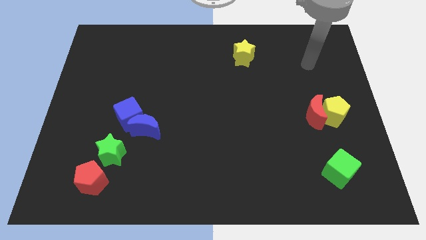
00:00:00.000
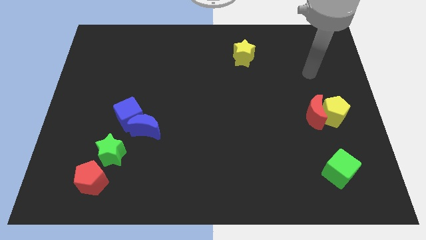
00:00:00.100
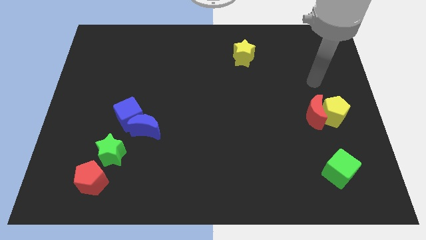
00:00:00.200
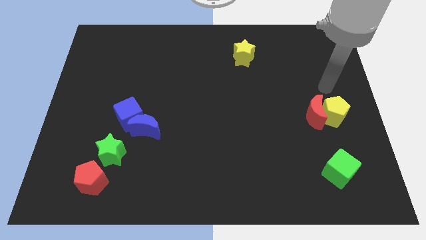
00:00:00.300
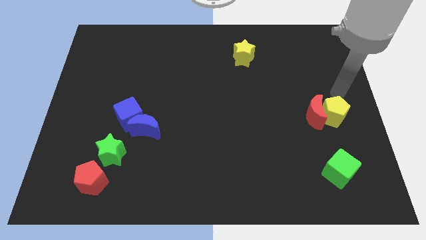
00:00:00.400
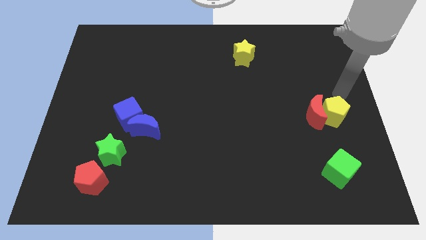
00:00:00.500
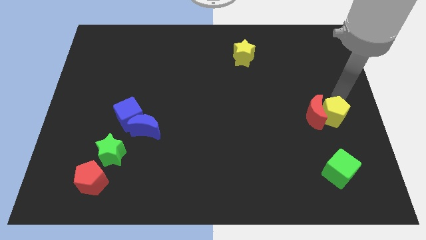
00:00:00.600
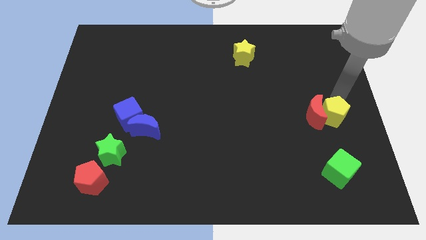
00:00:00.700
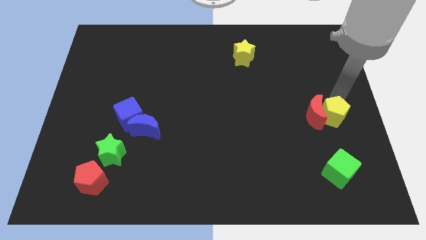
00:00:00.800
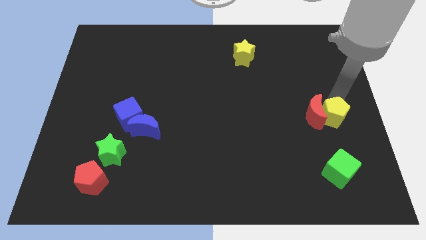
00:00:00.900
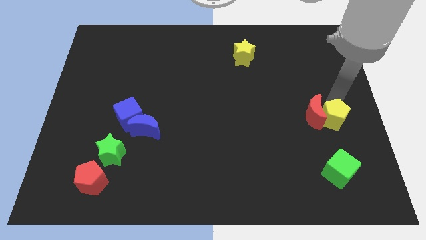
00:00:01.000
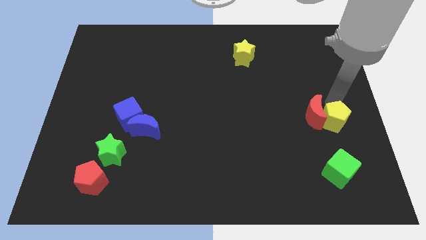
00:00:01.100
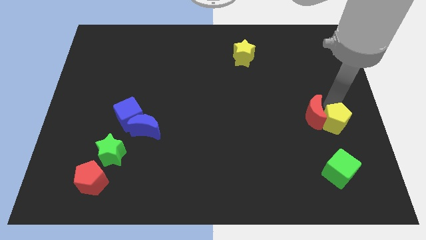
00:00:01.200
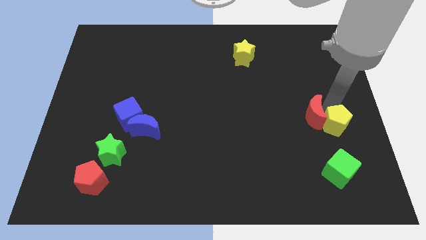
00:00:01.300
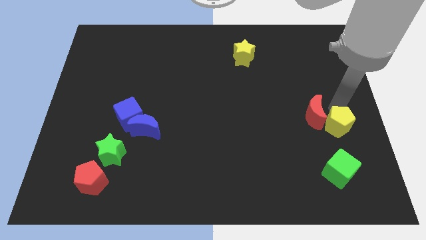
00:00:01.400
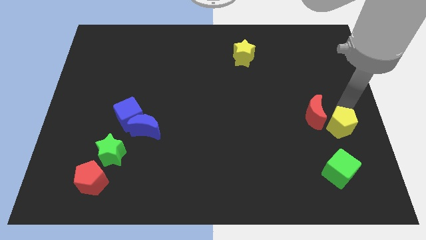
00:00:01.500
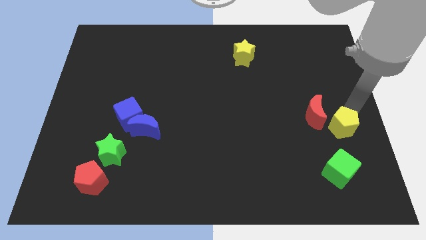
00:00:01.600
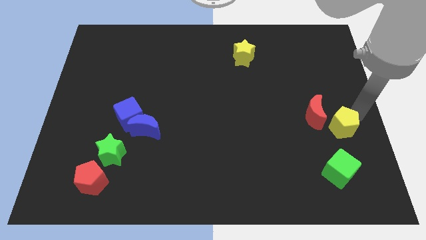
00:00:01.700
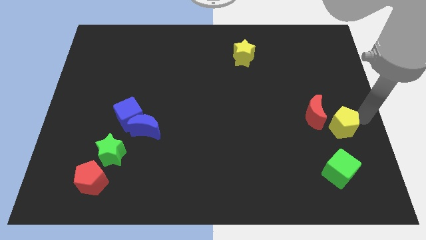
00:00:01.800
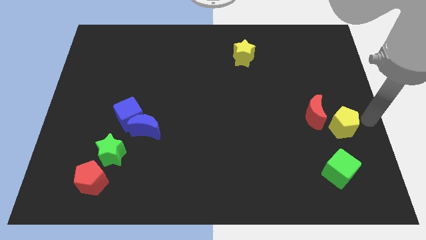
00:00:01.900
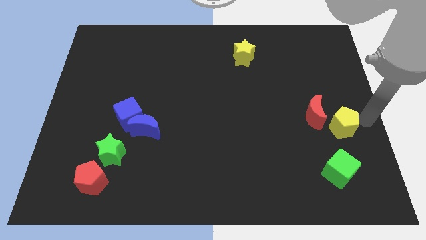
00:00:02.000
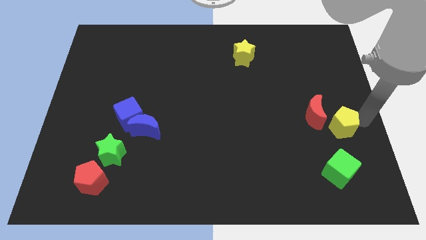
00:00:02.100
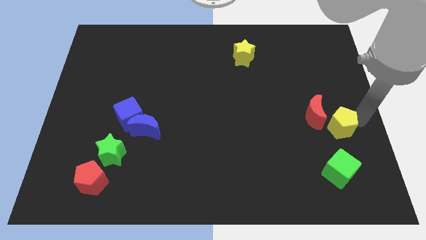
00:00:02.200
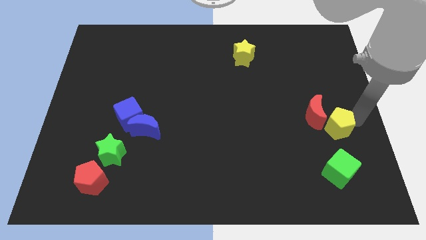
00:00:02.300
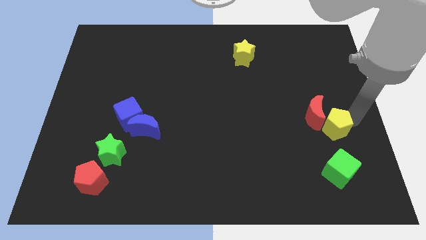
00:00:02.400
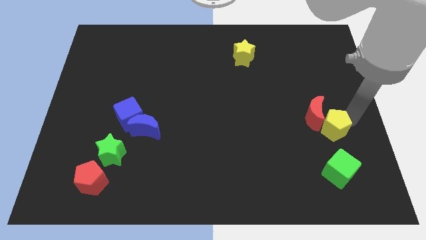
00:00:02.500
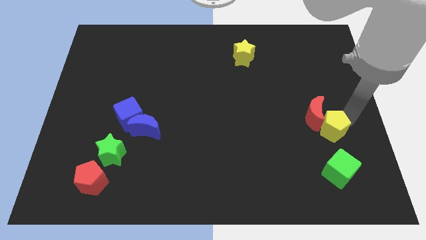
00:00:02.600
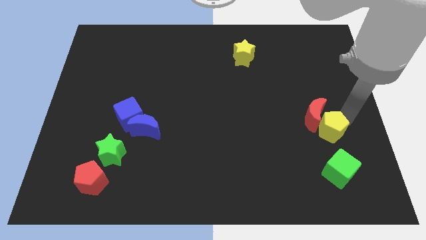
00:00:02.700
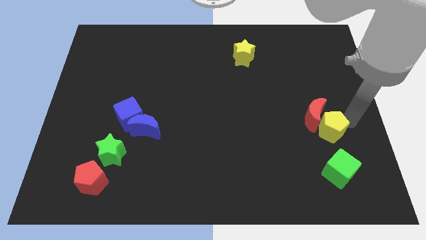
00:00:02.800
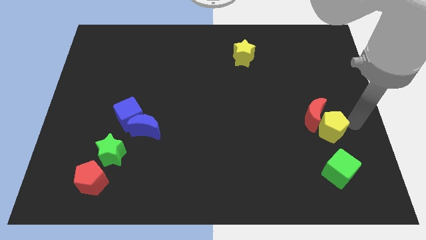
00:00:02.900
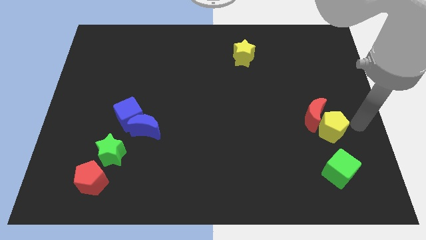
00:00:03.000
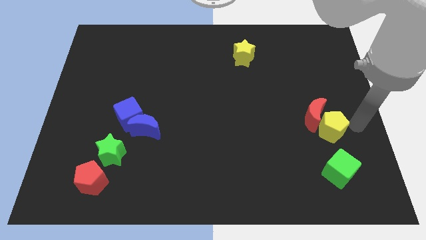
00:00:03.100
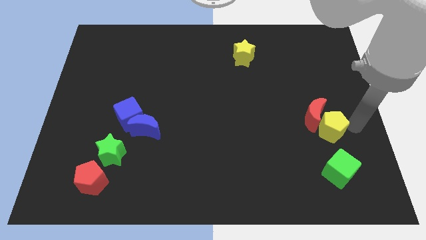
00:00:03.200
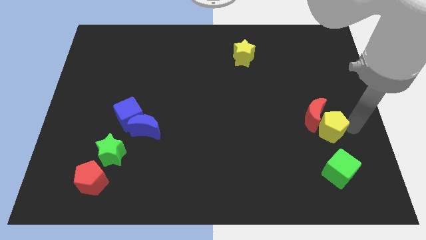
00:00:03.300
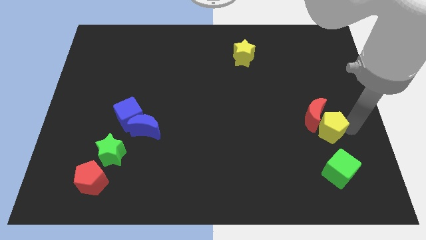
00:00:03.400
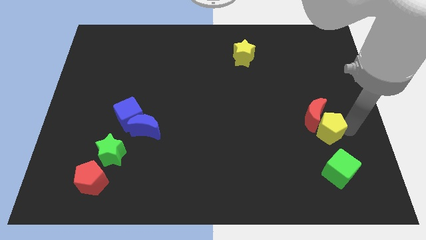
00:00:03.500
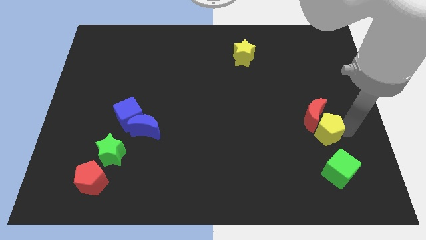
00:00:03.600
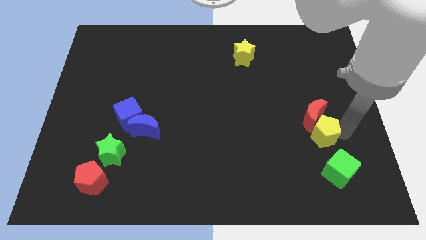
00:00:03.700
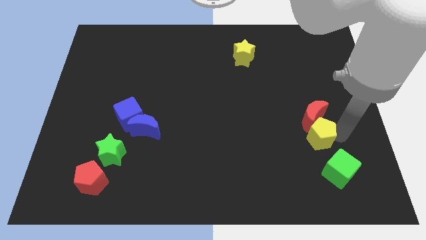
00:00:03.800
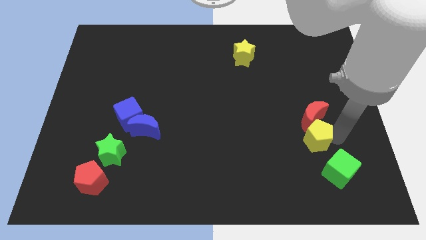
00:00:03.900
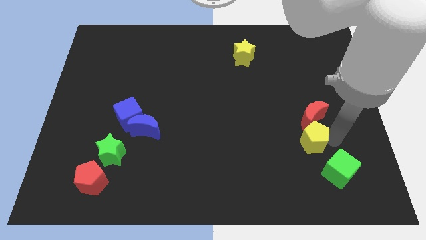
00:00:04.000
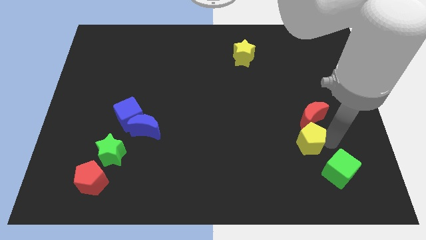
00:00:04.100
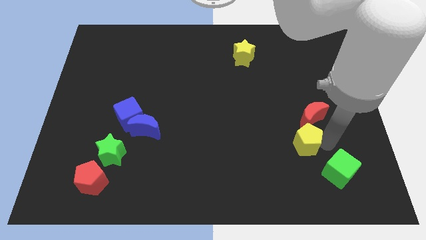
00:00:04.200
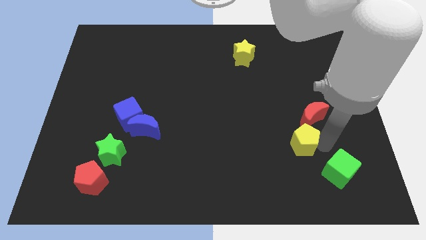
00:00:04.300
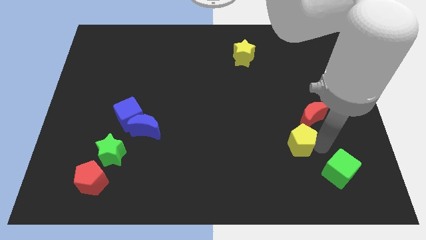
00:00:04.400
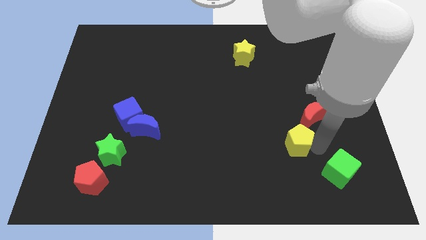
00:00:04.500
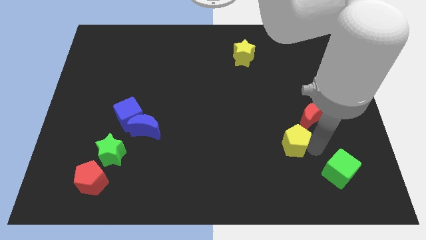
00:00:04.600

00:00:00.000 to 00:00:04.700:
slightly move the yellow pentagon to the left

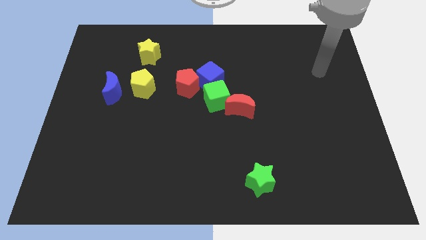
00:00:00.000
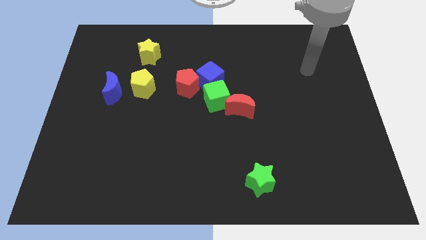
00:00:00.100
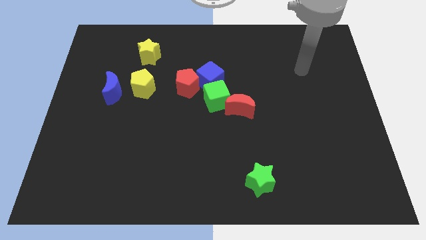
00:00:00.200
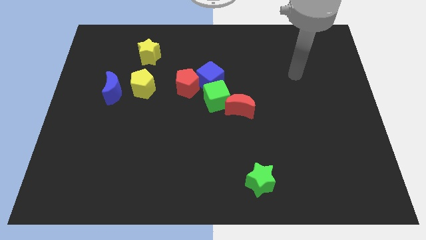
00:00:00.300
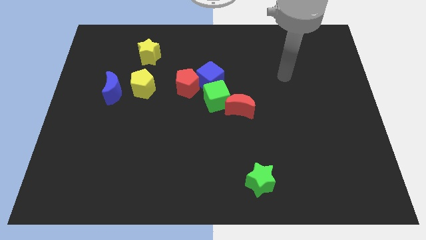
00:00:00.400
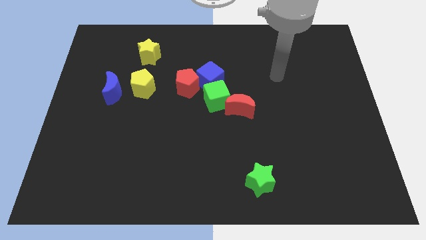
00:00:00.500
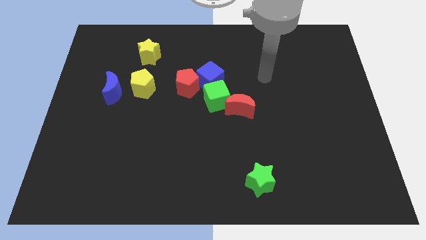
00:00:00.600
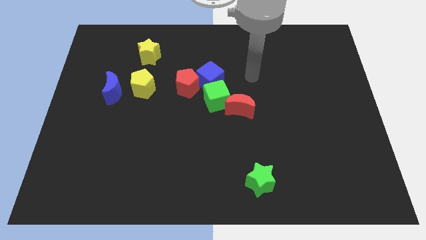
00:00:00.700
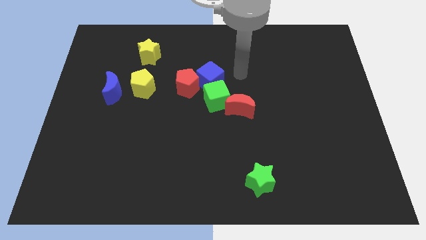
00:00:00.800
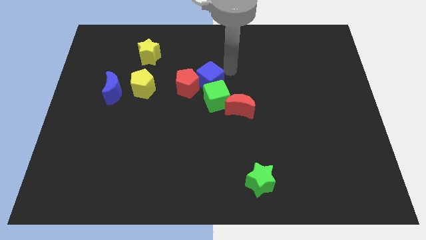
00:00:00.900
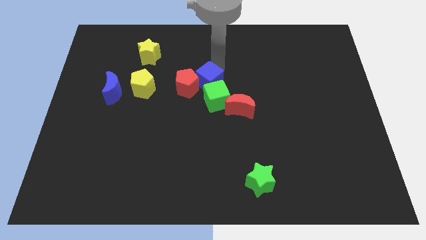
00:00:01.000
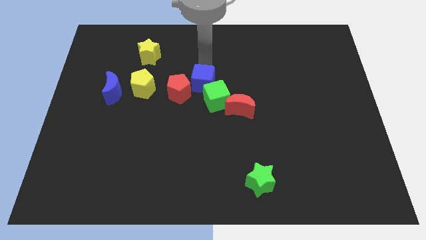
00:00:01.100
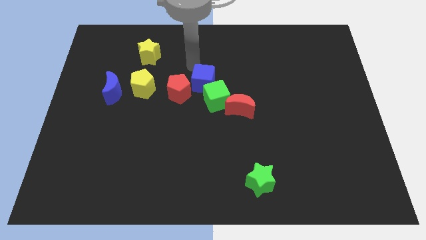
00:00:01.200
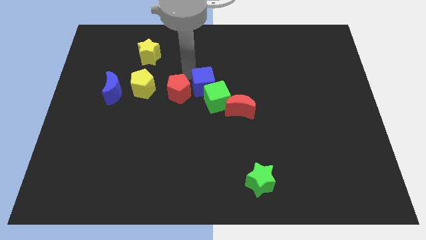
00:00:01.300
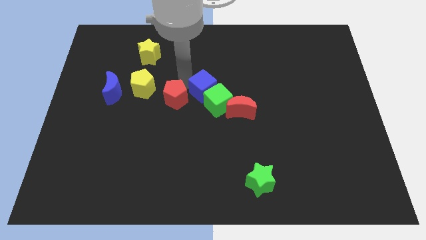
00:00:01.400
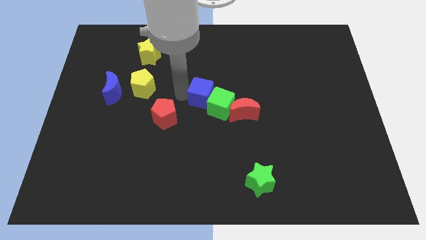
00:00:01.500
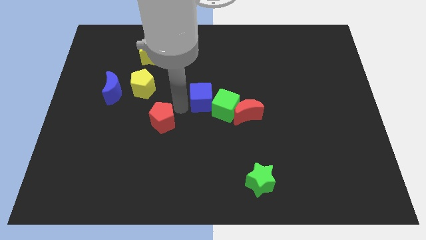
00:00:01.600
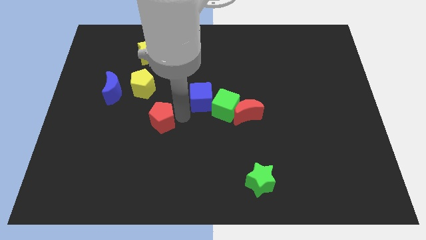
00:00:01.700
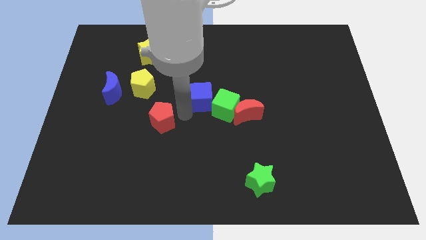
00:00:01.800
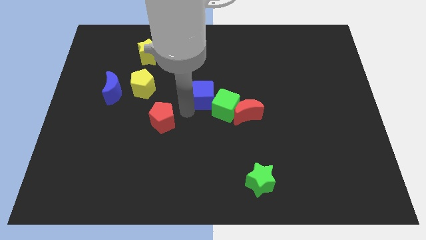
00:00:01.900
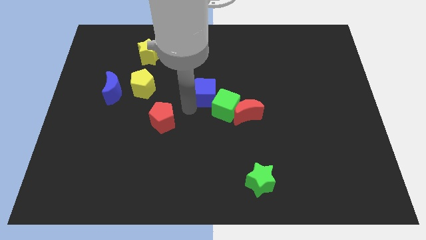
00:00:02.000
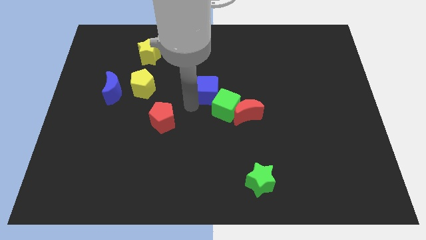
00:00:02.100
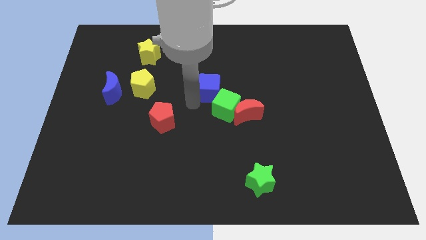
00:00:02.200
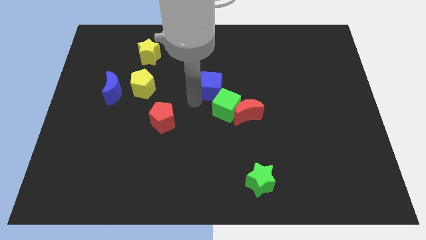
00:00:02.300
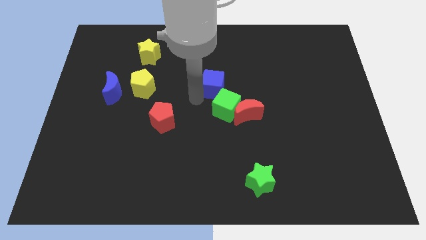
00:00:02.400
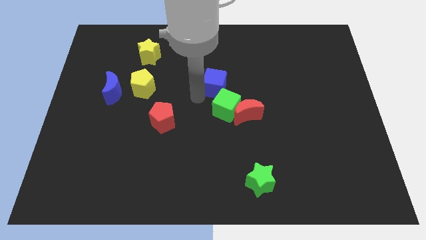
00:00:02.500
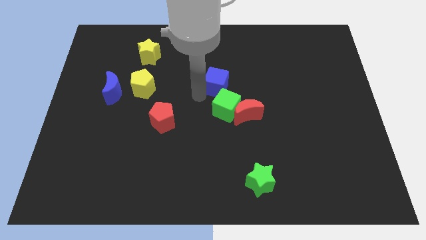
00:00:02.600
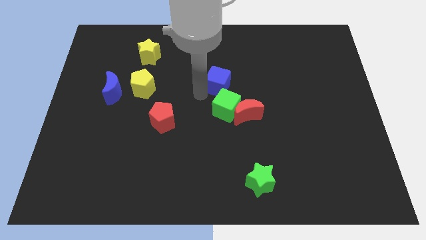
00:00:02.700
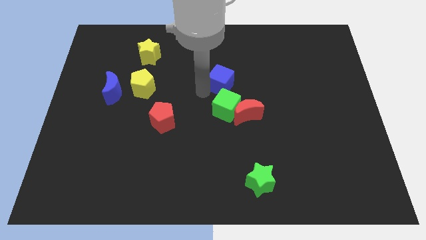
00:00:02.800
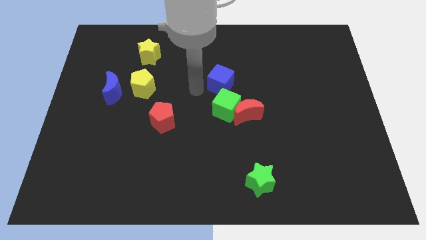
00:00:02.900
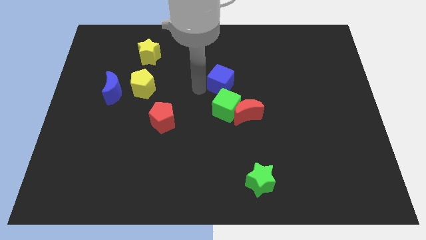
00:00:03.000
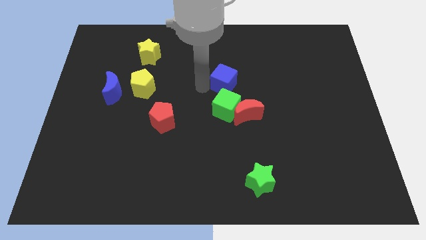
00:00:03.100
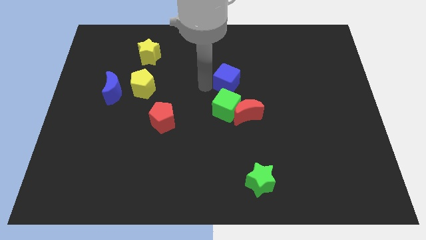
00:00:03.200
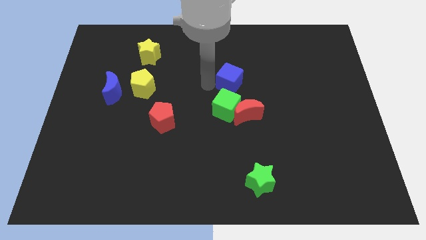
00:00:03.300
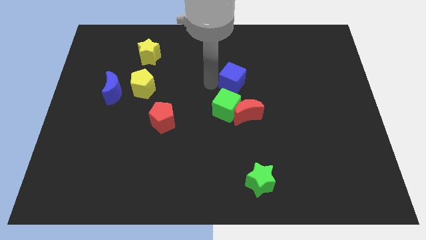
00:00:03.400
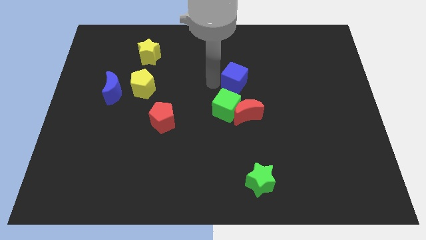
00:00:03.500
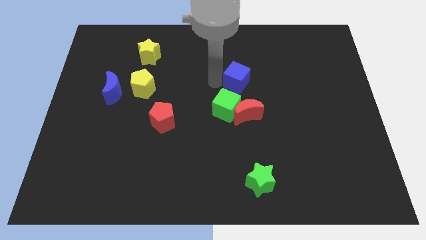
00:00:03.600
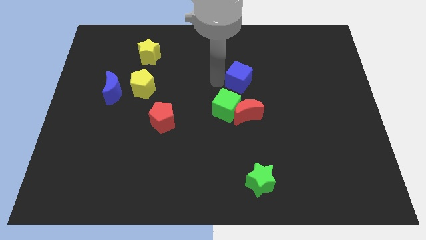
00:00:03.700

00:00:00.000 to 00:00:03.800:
slightly move the blue cube to the right
